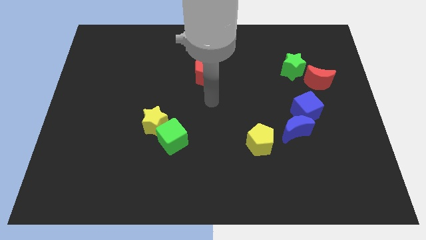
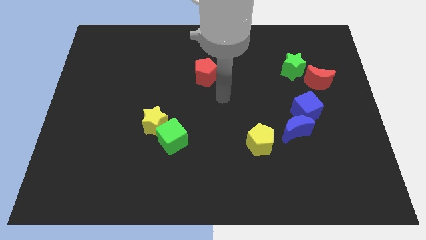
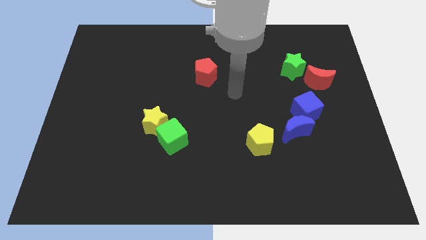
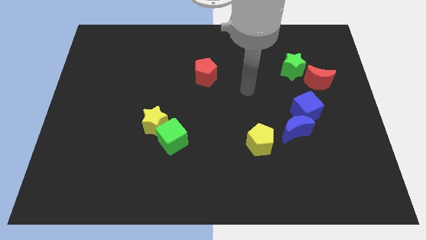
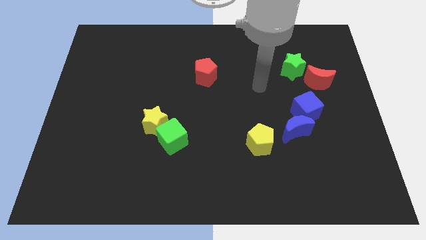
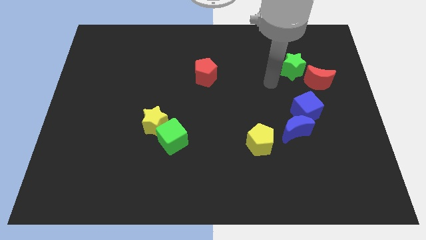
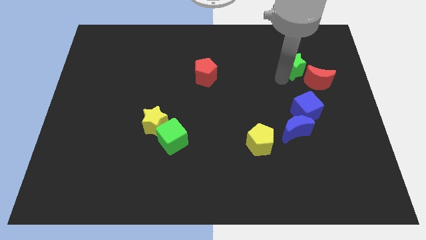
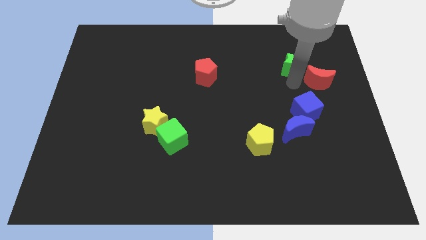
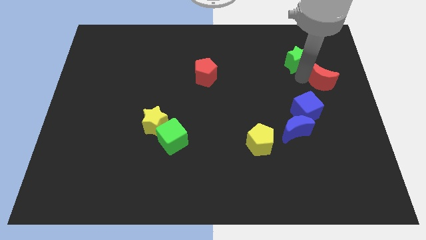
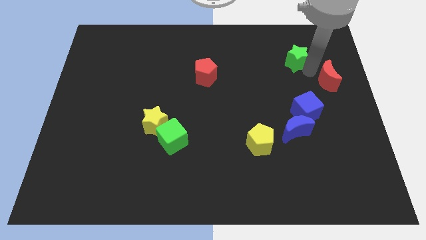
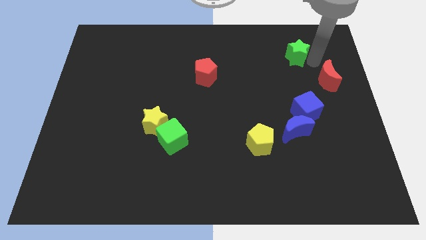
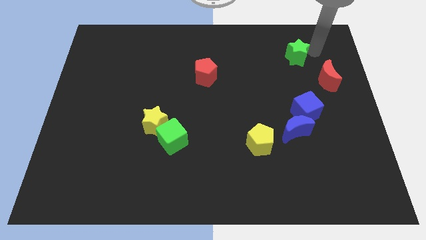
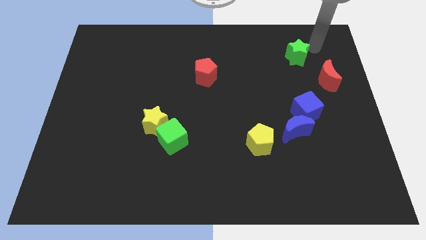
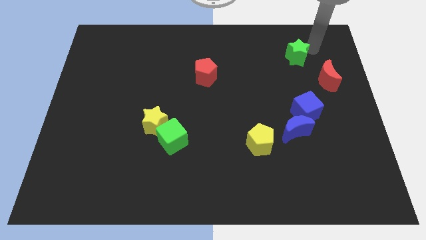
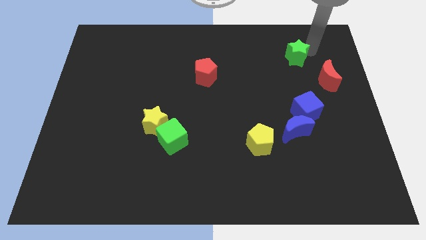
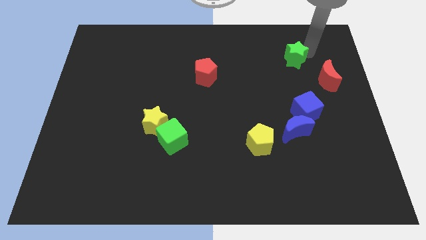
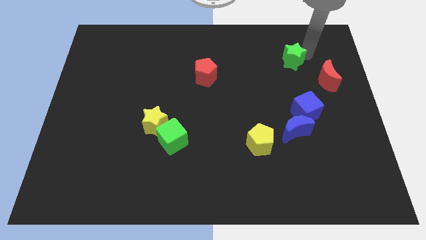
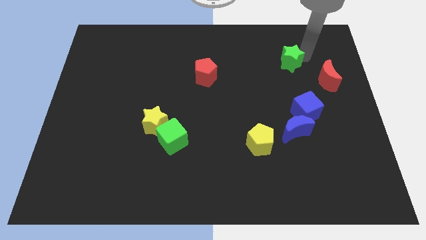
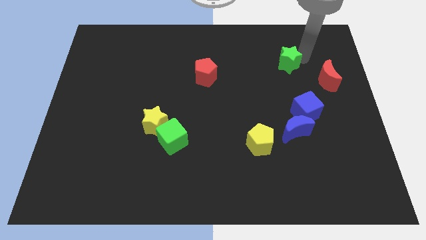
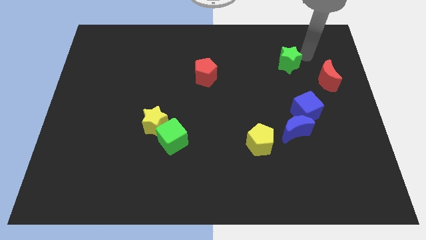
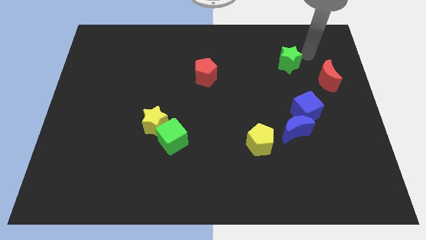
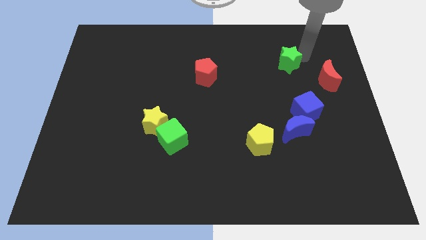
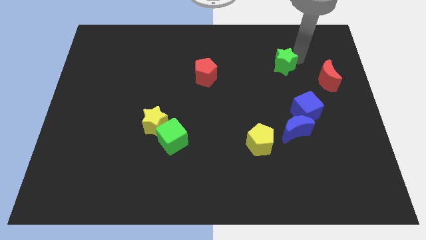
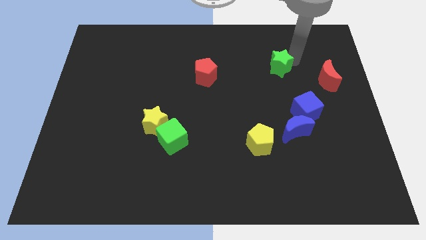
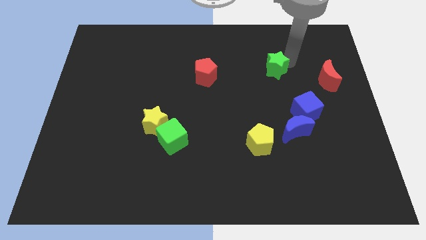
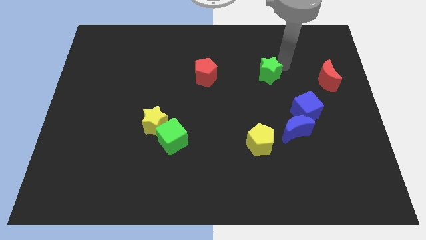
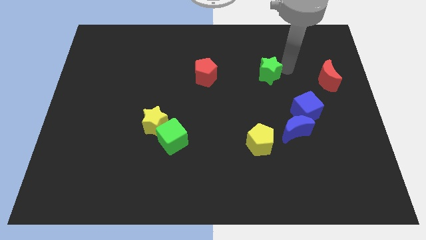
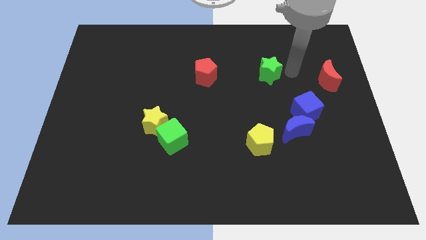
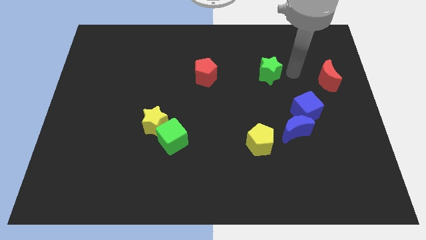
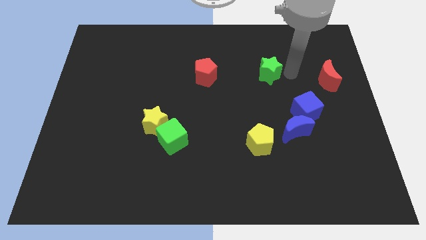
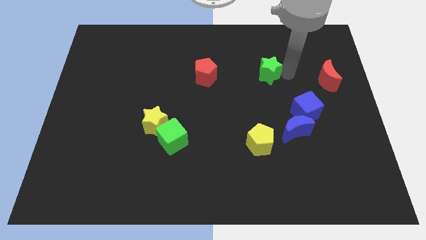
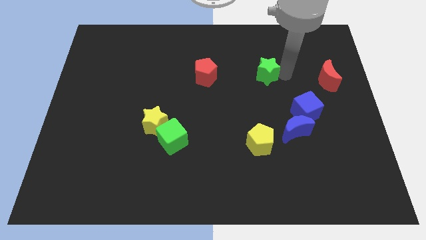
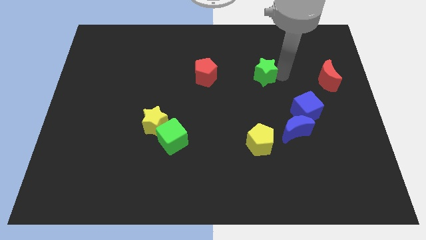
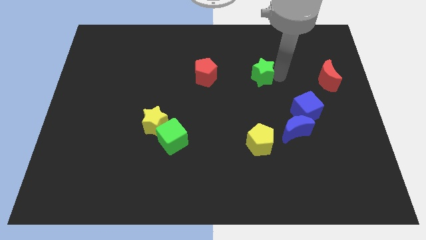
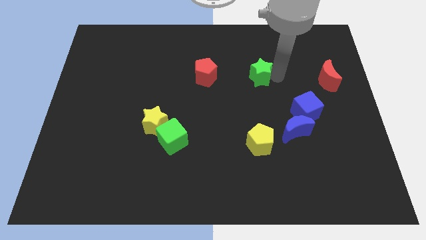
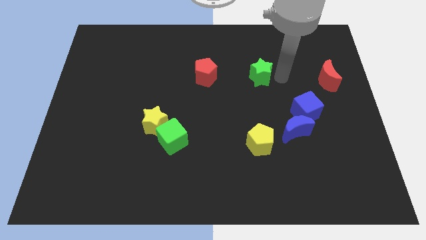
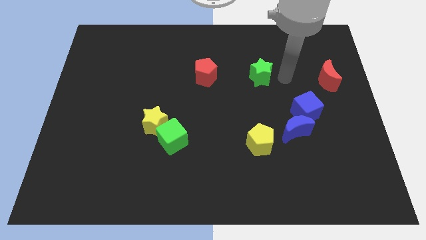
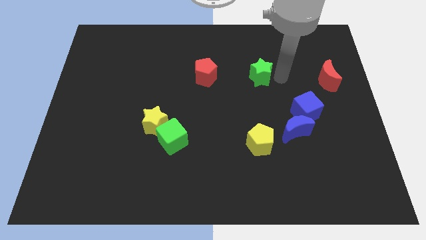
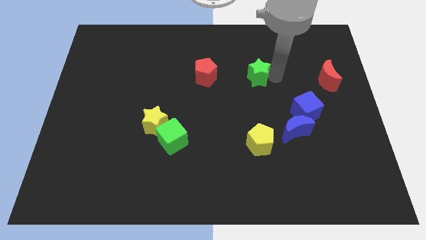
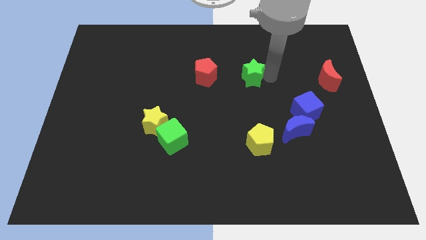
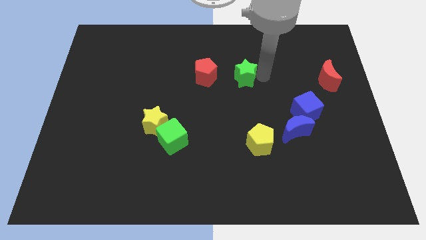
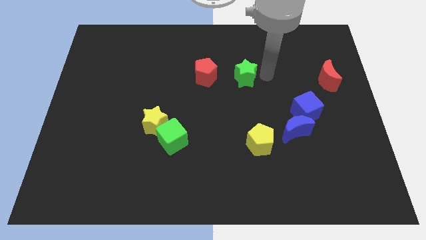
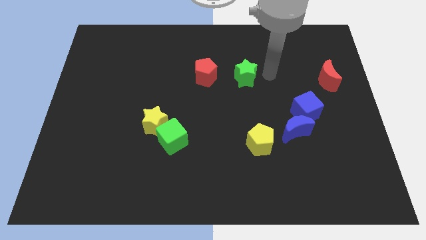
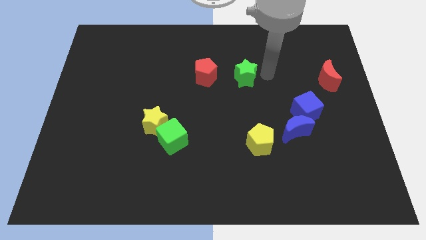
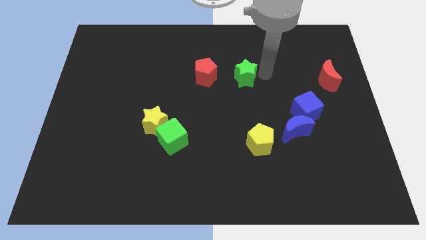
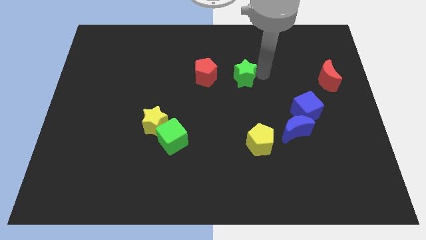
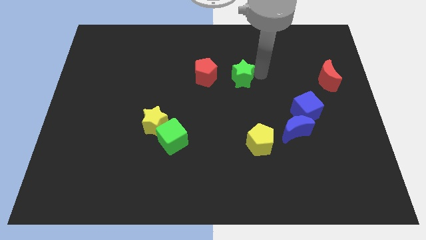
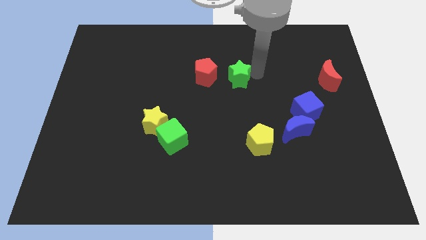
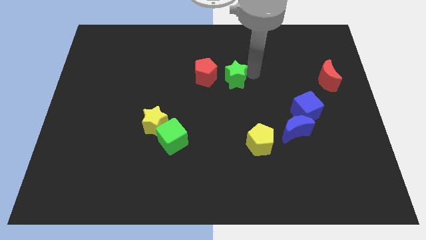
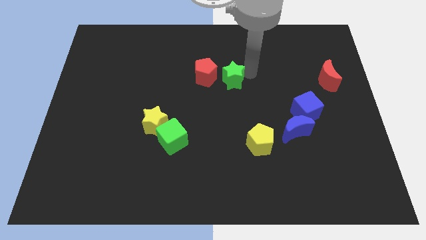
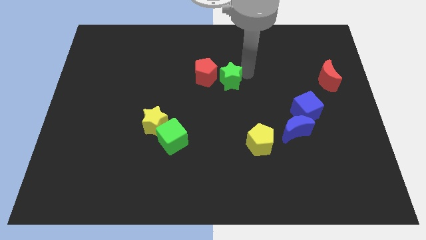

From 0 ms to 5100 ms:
put the green star close to the red pentagon

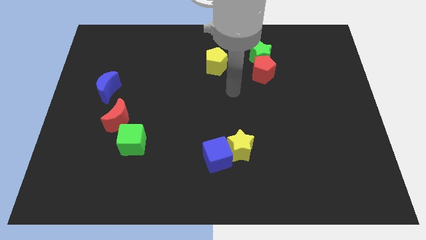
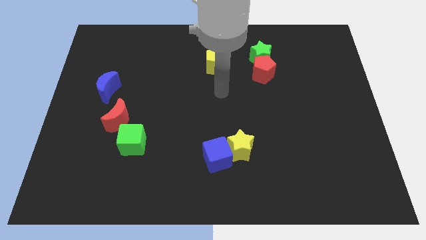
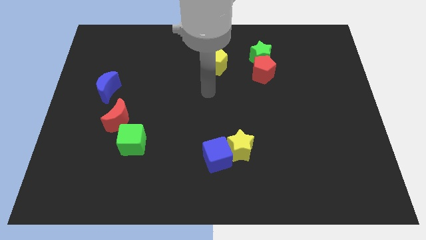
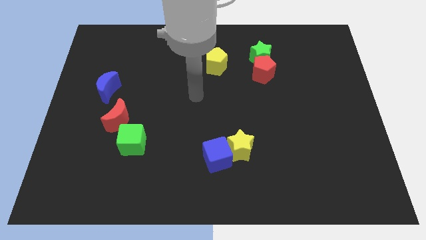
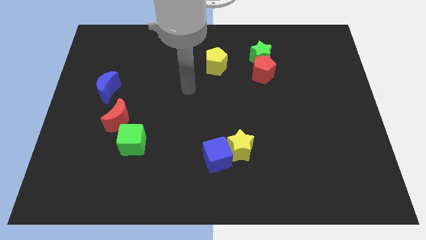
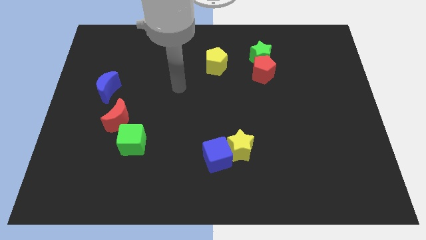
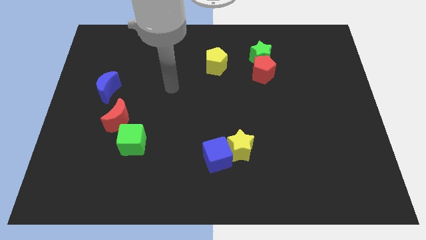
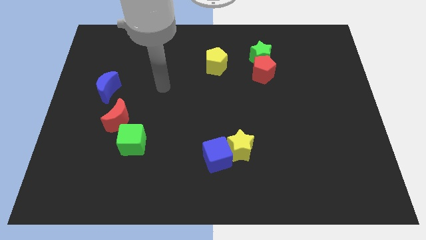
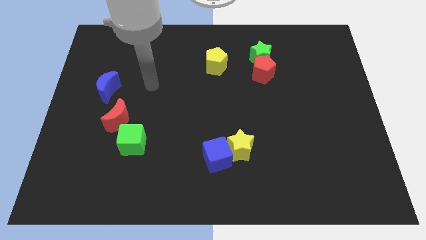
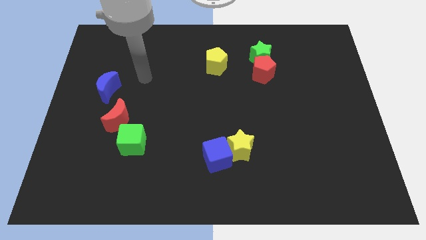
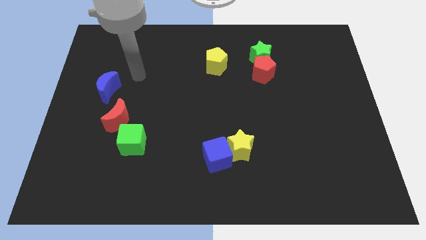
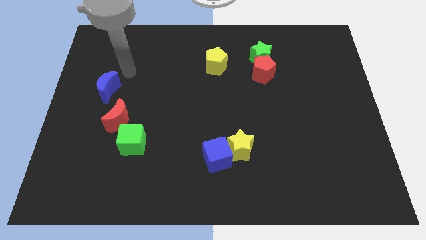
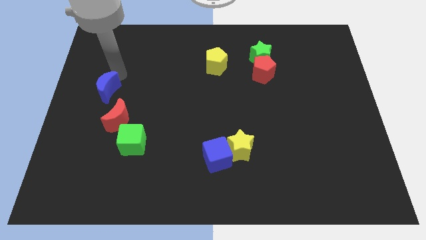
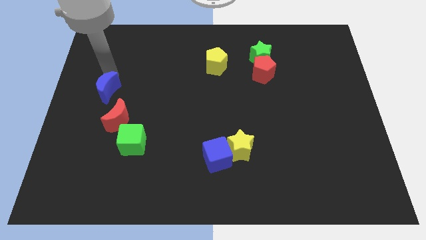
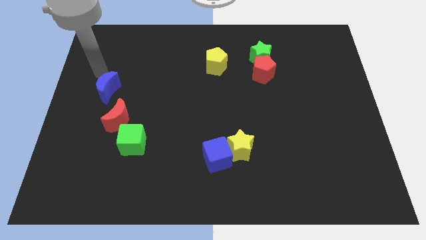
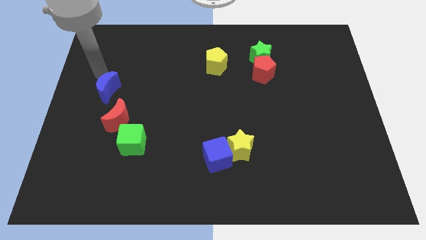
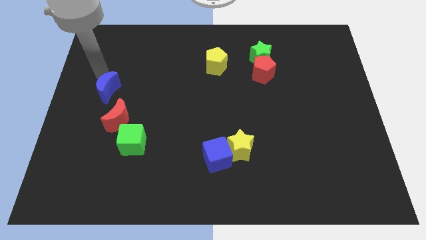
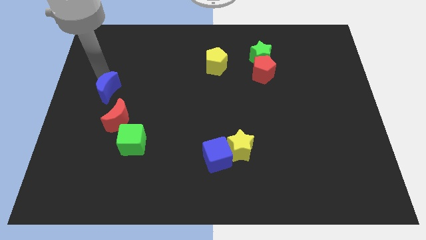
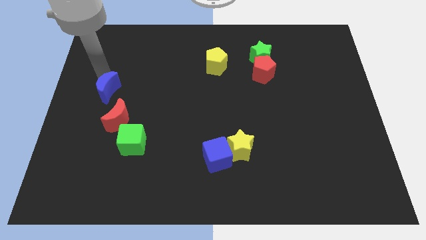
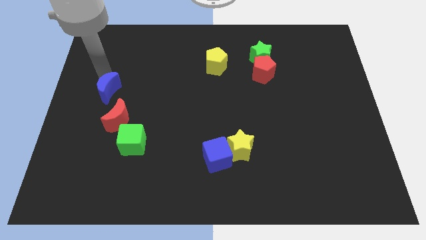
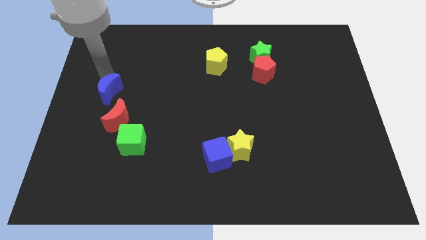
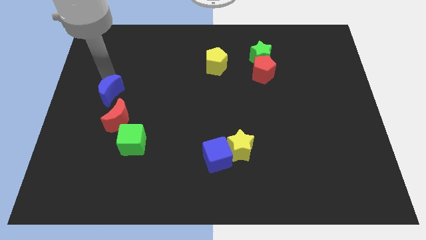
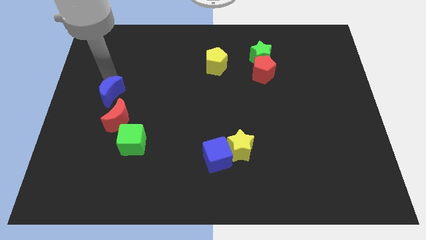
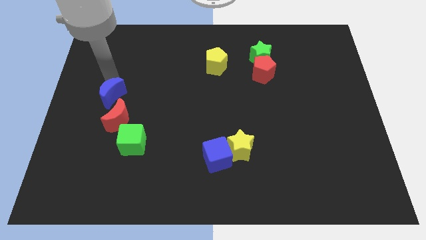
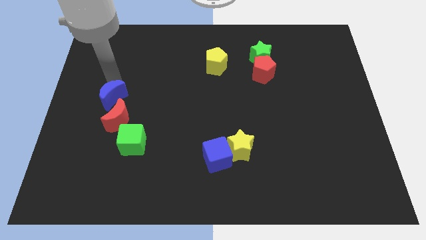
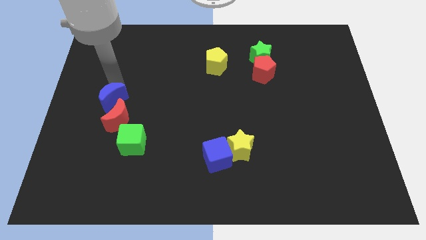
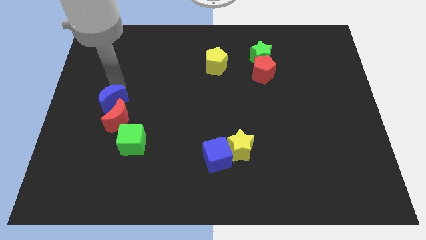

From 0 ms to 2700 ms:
push the blue moon next to the red moon
